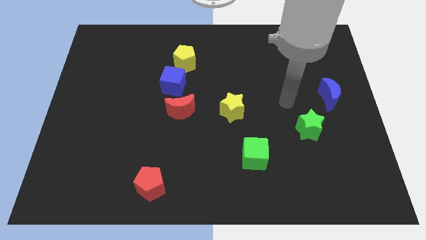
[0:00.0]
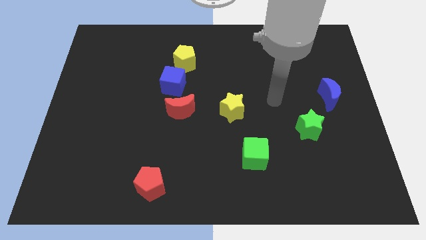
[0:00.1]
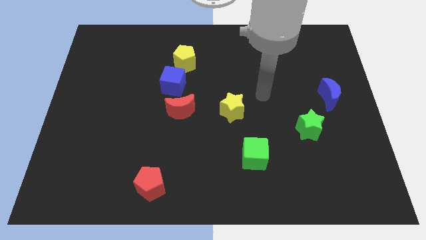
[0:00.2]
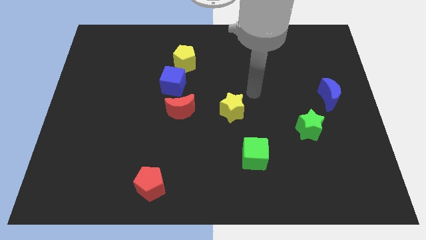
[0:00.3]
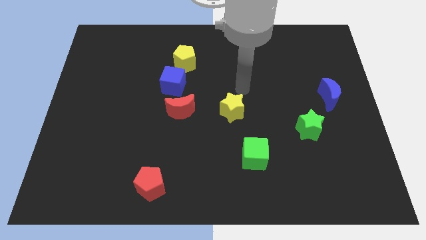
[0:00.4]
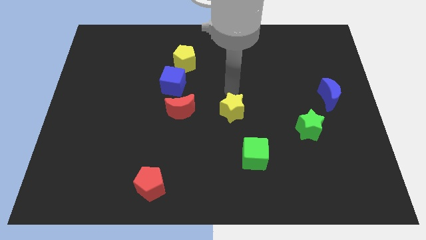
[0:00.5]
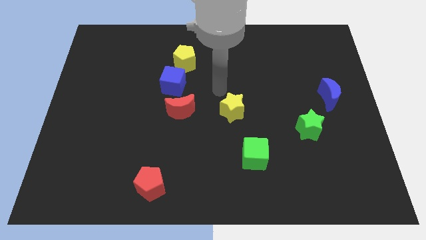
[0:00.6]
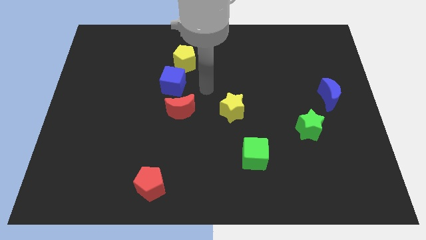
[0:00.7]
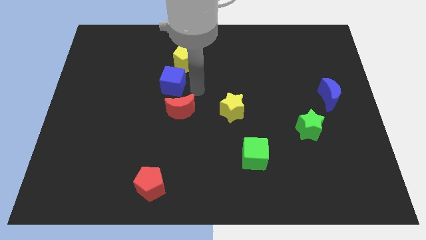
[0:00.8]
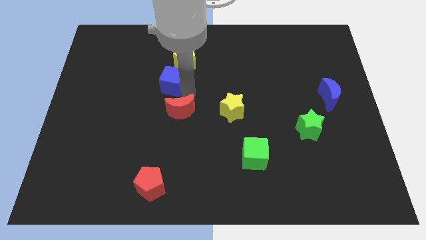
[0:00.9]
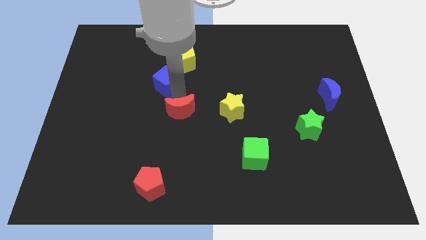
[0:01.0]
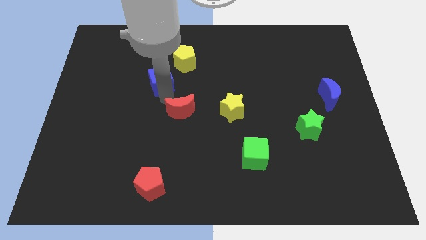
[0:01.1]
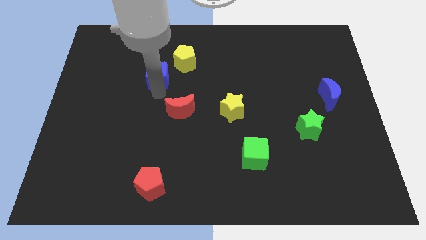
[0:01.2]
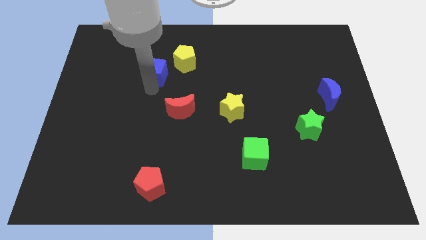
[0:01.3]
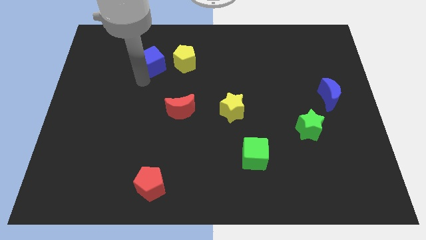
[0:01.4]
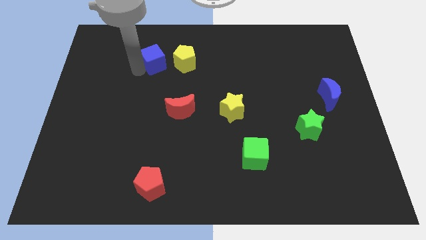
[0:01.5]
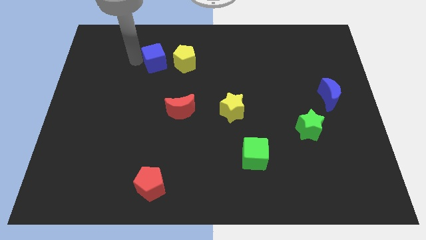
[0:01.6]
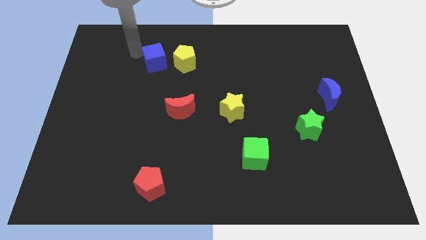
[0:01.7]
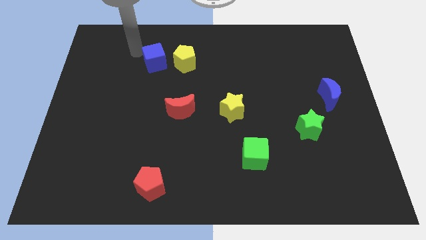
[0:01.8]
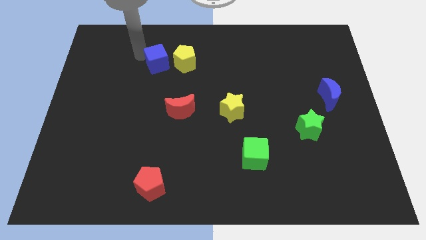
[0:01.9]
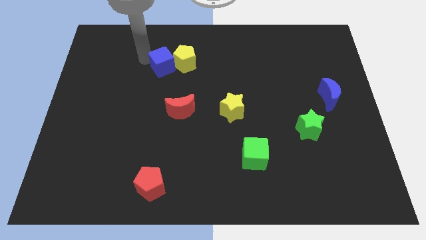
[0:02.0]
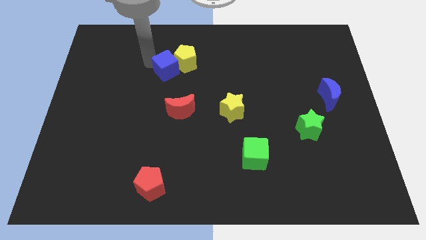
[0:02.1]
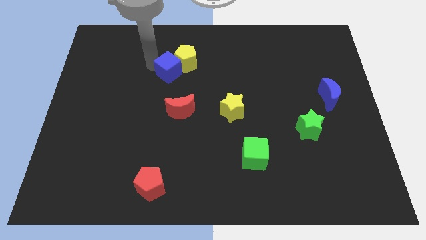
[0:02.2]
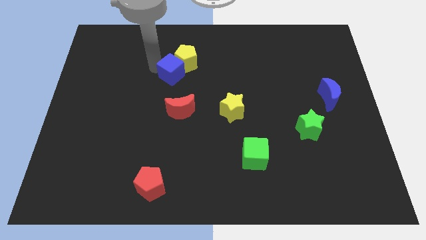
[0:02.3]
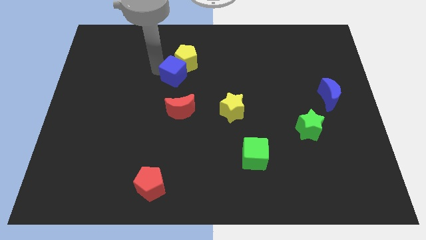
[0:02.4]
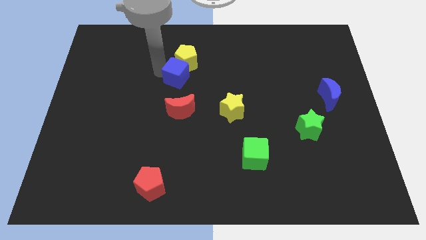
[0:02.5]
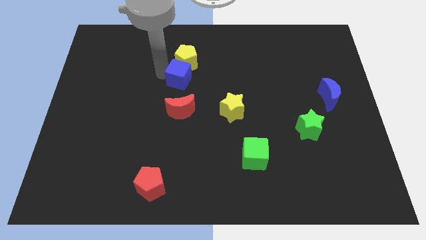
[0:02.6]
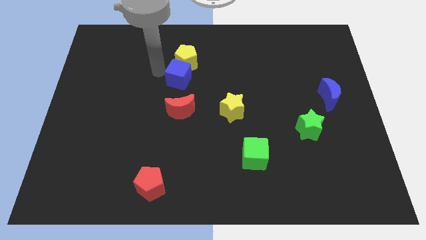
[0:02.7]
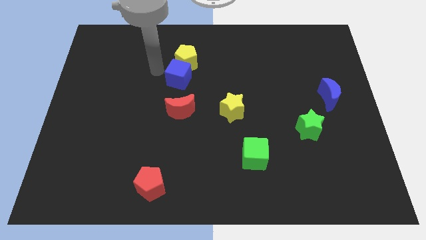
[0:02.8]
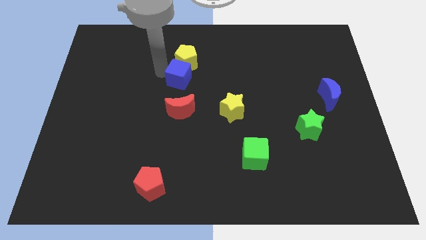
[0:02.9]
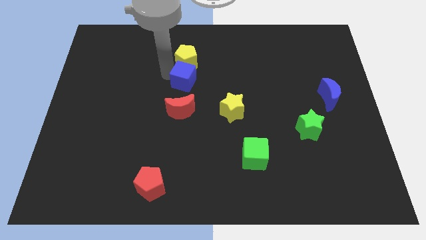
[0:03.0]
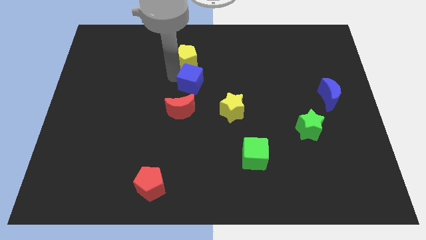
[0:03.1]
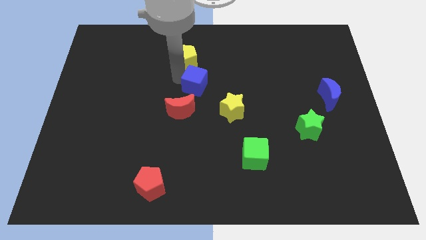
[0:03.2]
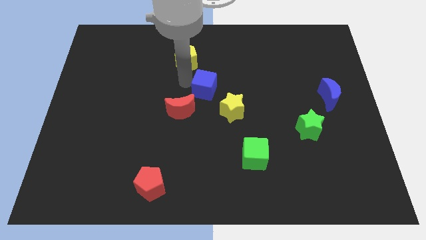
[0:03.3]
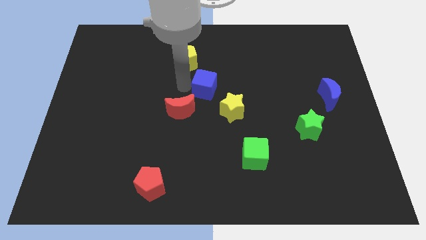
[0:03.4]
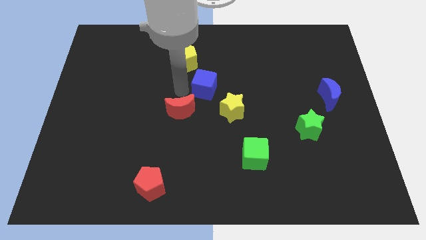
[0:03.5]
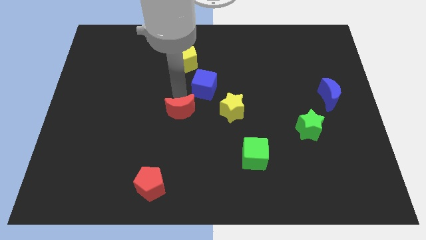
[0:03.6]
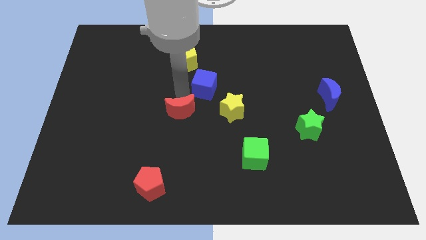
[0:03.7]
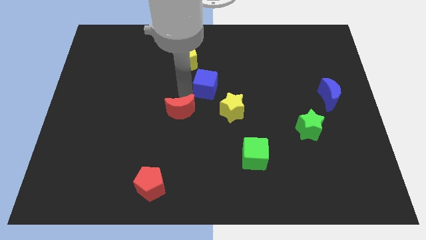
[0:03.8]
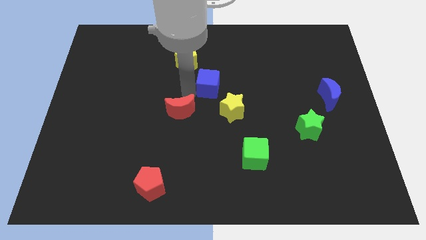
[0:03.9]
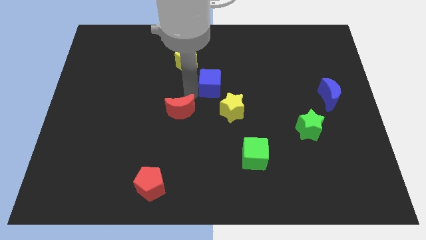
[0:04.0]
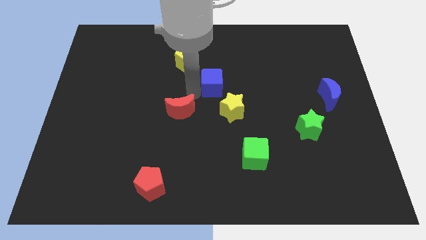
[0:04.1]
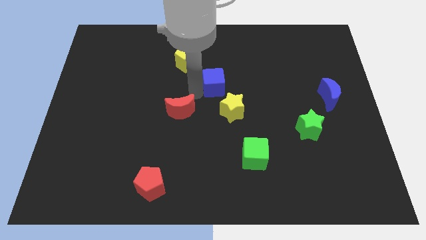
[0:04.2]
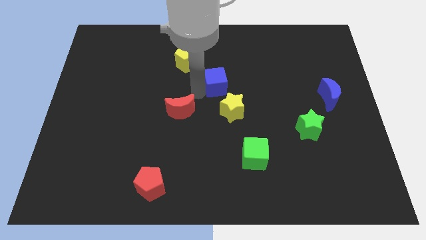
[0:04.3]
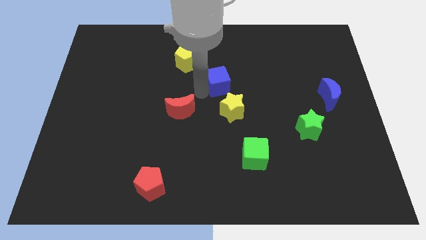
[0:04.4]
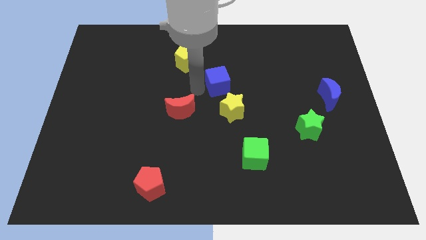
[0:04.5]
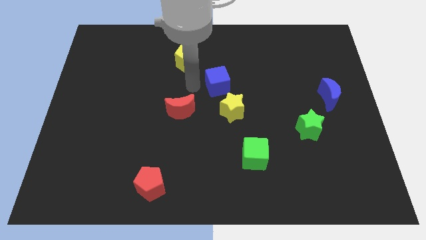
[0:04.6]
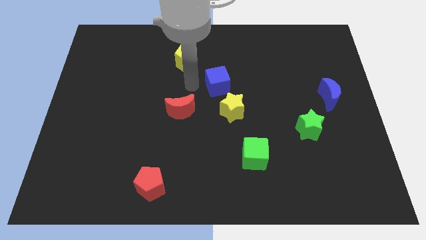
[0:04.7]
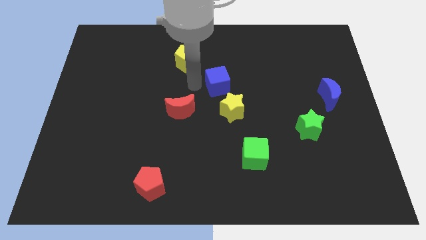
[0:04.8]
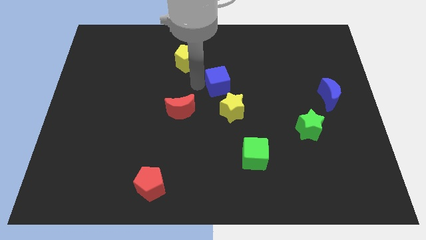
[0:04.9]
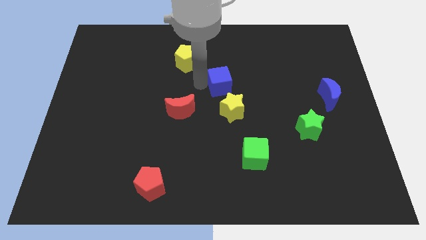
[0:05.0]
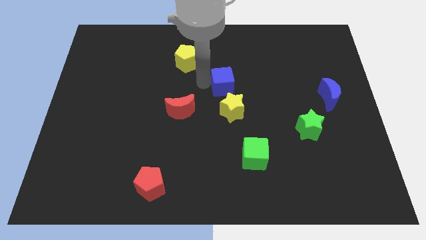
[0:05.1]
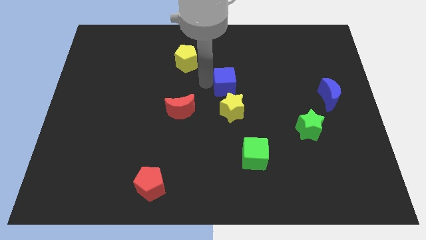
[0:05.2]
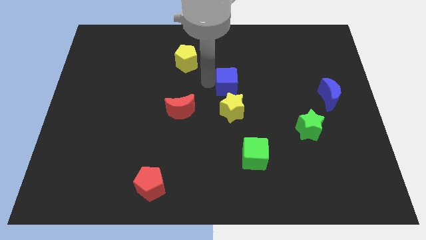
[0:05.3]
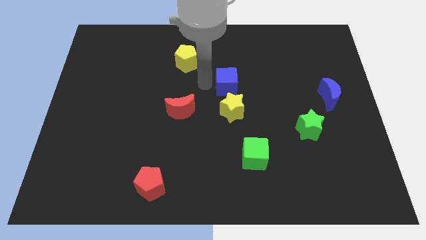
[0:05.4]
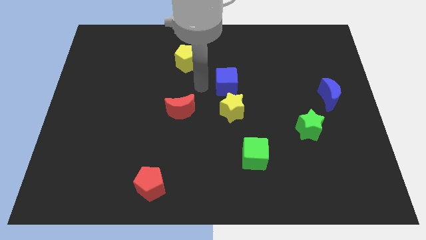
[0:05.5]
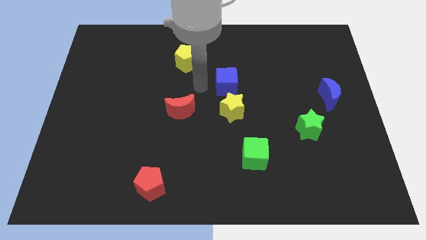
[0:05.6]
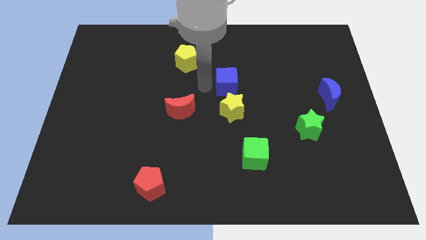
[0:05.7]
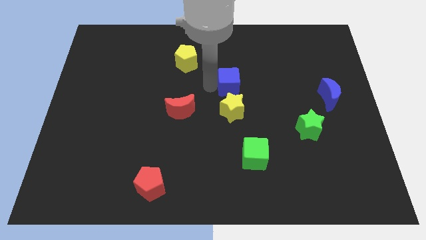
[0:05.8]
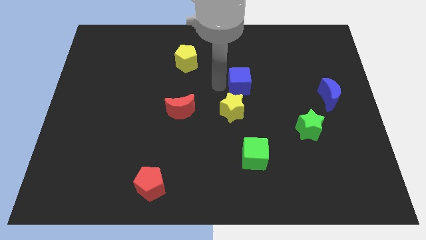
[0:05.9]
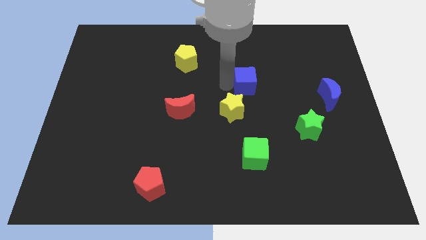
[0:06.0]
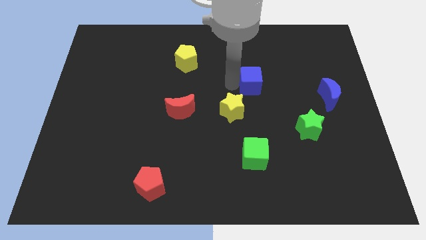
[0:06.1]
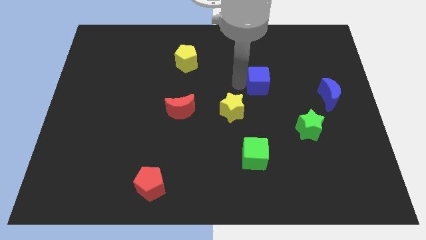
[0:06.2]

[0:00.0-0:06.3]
move the blue cube right

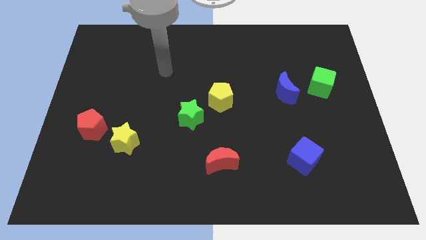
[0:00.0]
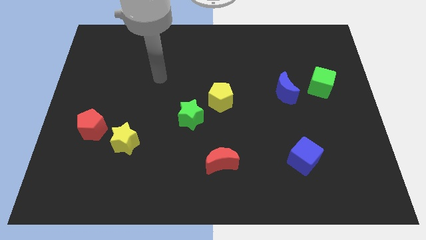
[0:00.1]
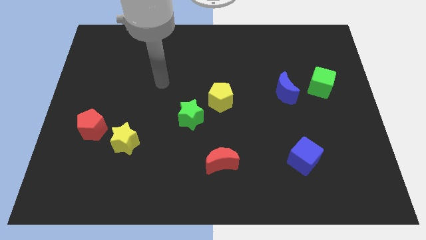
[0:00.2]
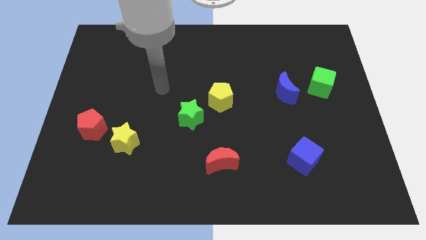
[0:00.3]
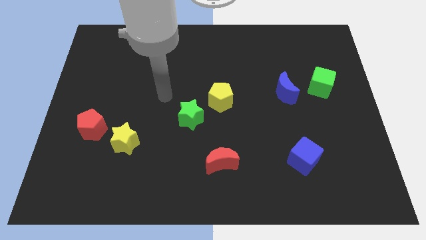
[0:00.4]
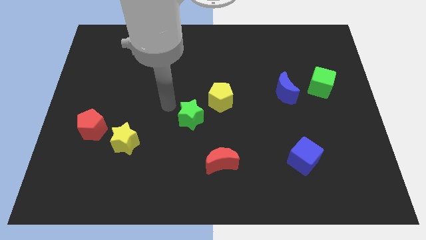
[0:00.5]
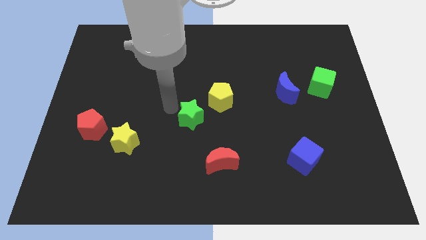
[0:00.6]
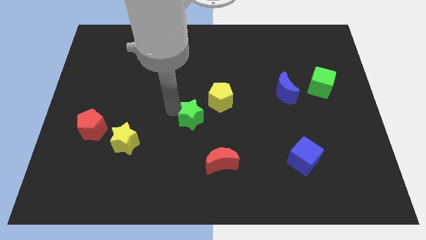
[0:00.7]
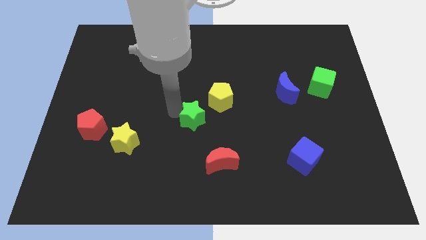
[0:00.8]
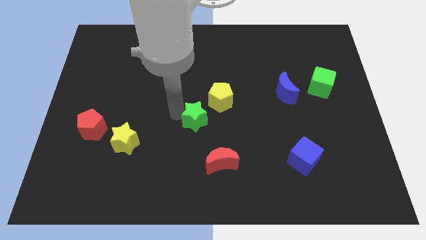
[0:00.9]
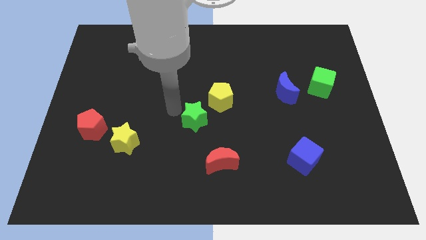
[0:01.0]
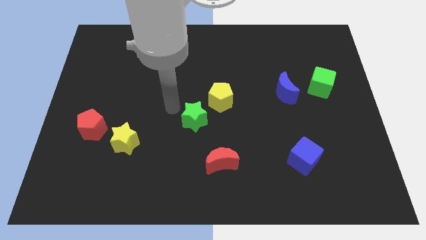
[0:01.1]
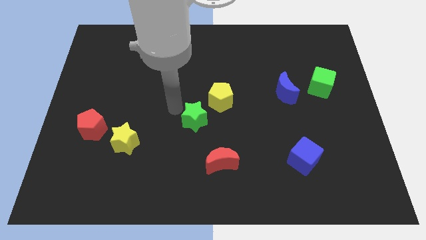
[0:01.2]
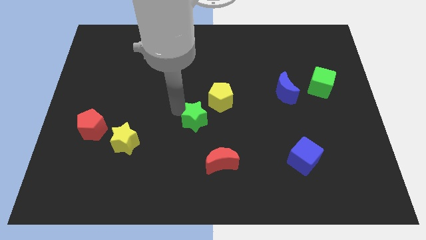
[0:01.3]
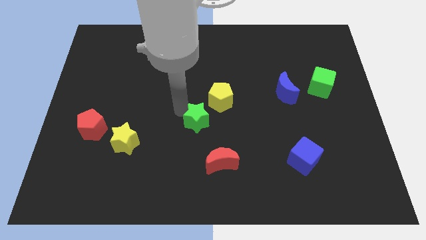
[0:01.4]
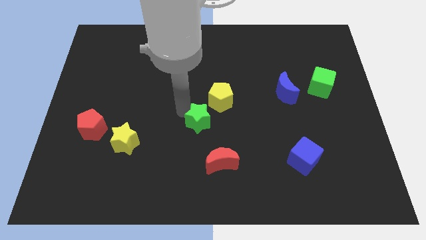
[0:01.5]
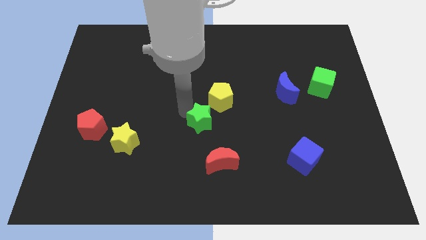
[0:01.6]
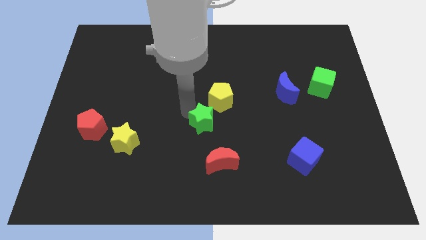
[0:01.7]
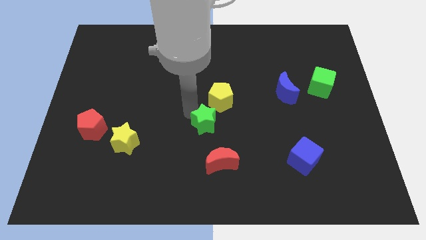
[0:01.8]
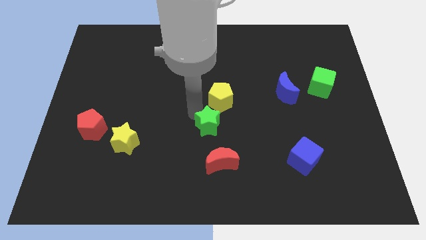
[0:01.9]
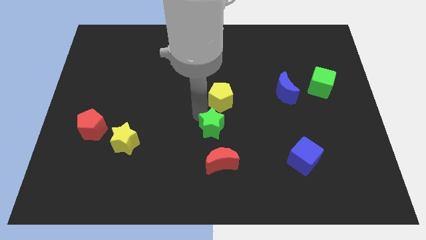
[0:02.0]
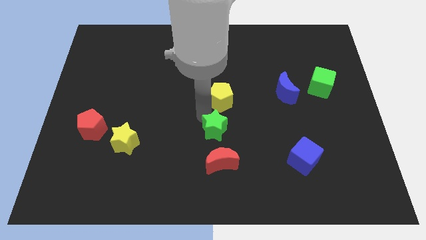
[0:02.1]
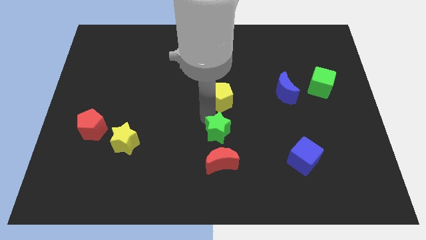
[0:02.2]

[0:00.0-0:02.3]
push the green star a little bit down and to the right

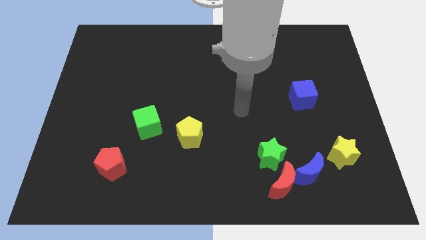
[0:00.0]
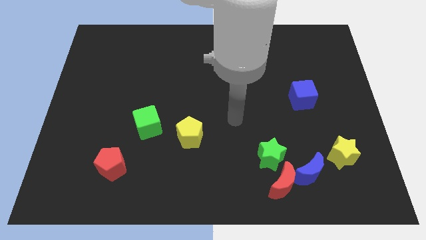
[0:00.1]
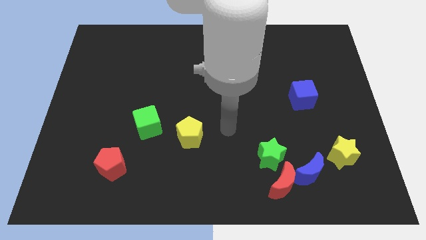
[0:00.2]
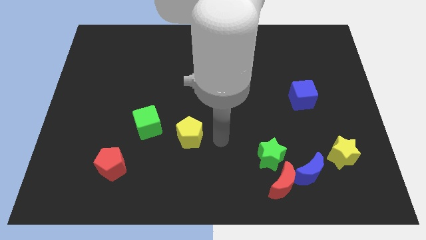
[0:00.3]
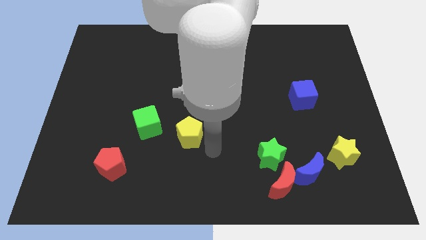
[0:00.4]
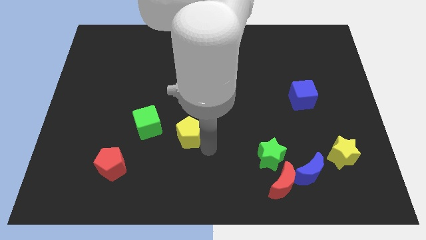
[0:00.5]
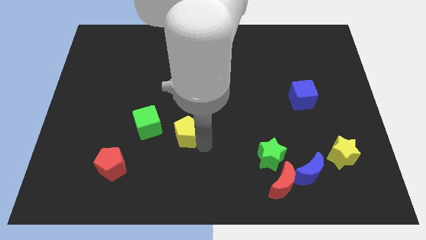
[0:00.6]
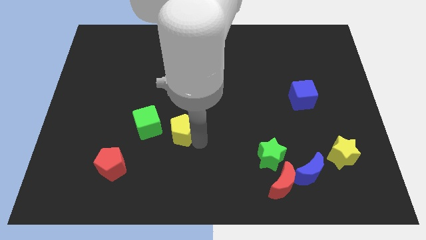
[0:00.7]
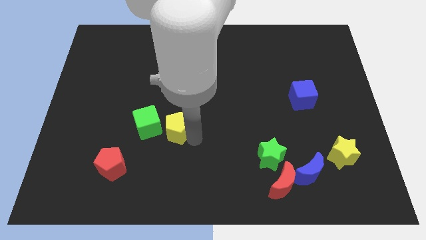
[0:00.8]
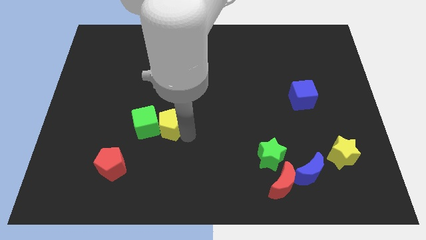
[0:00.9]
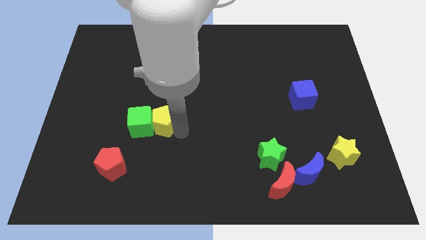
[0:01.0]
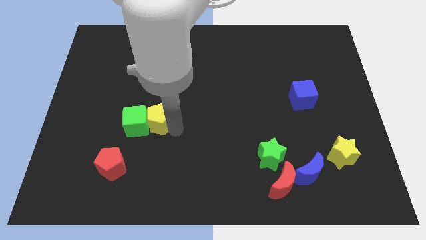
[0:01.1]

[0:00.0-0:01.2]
push the yellow pentagon up and to the left a little
